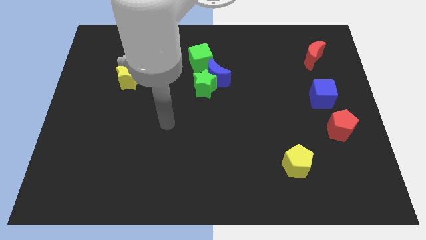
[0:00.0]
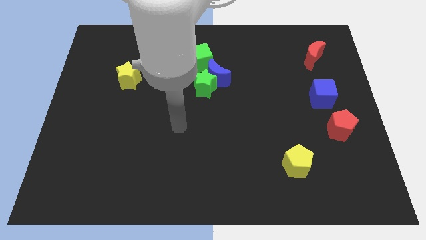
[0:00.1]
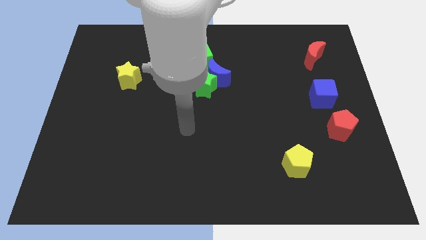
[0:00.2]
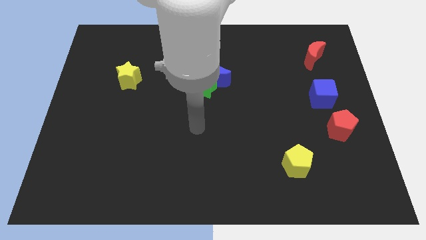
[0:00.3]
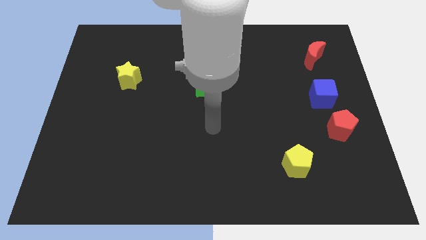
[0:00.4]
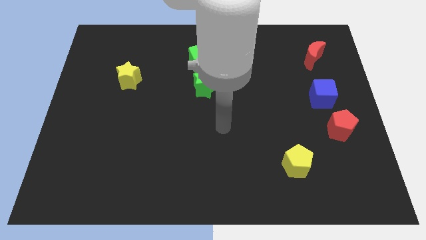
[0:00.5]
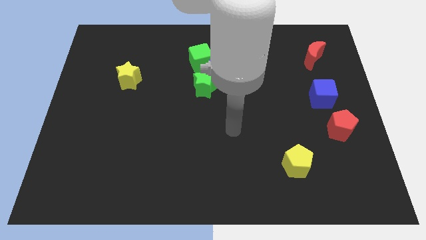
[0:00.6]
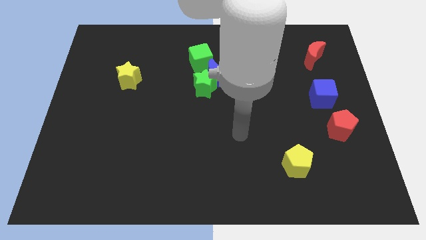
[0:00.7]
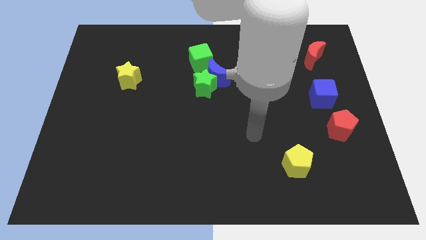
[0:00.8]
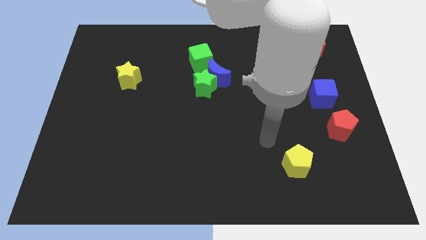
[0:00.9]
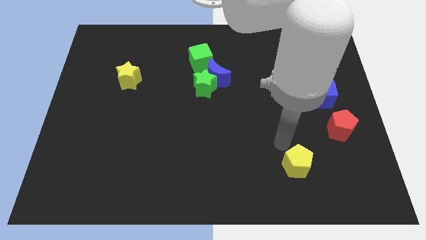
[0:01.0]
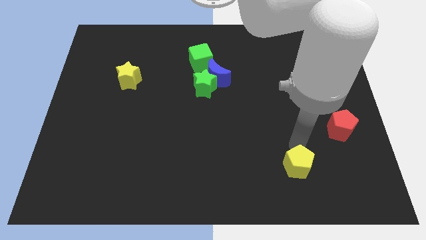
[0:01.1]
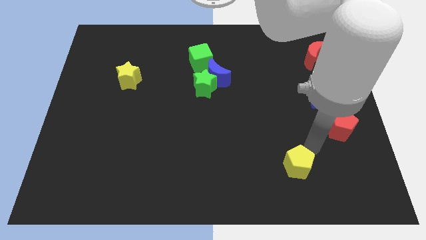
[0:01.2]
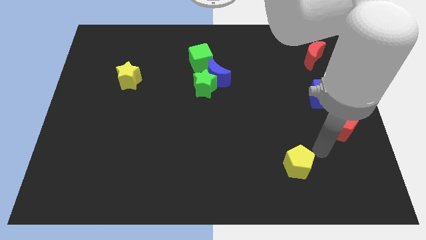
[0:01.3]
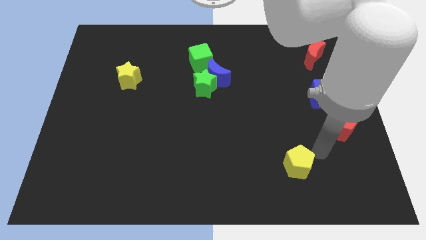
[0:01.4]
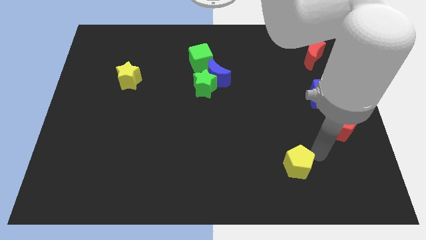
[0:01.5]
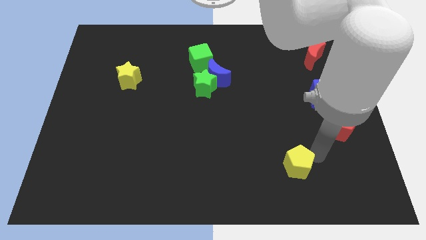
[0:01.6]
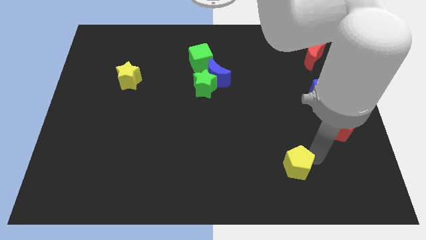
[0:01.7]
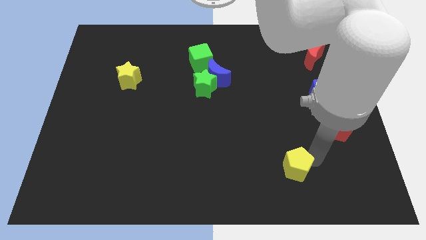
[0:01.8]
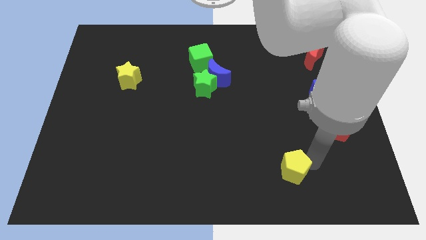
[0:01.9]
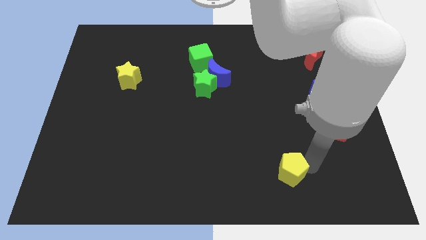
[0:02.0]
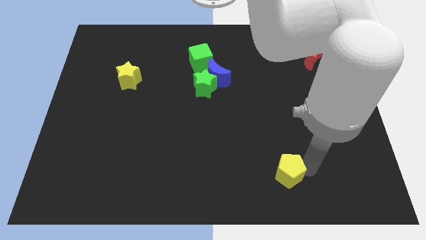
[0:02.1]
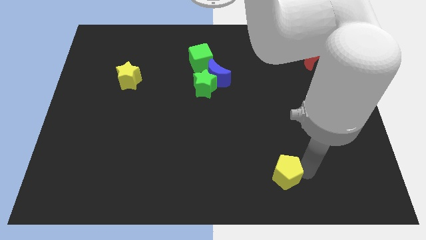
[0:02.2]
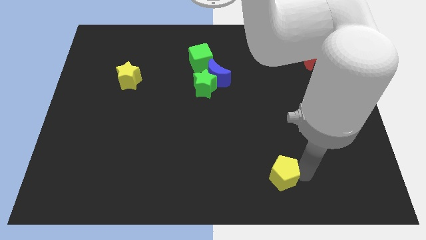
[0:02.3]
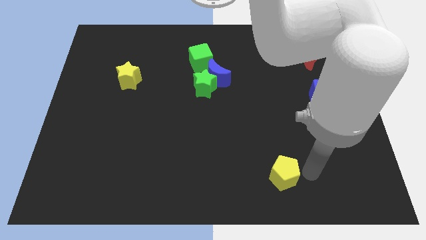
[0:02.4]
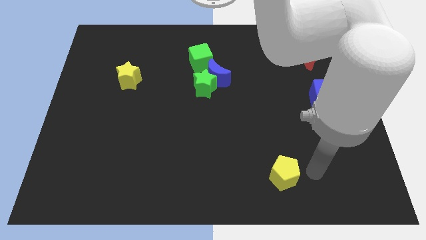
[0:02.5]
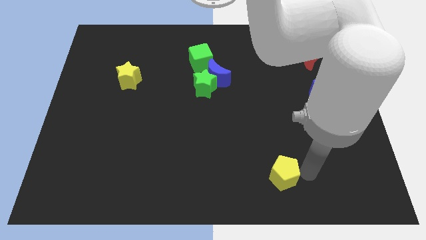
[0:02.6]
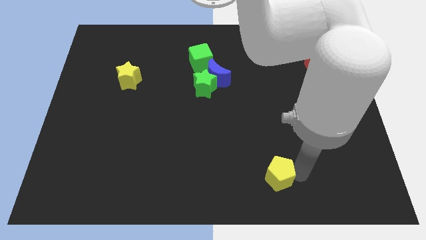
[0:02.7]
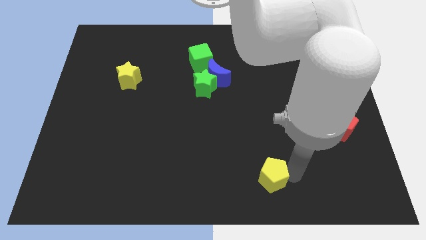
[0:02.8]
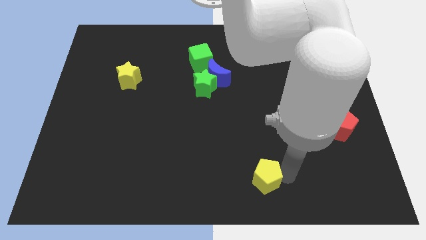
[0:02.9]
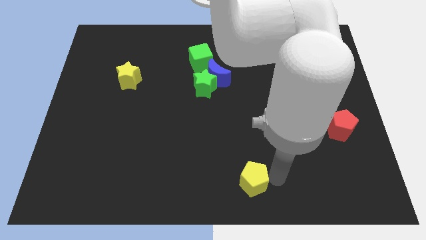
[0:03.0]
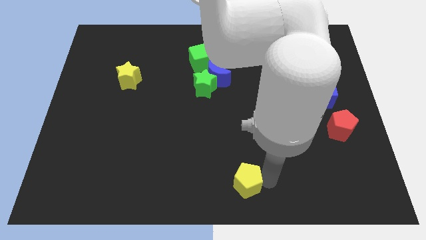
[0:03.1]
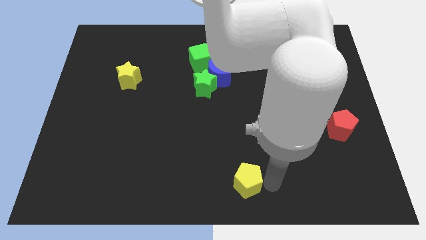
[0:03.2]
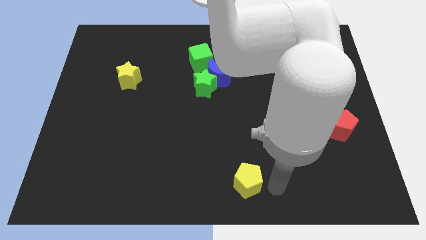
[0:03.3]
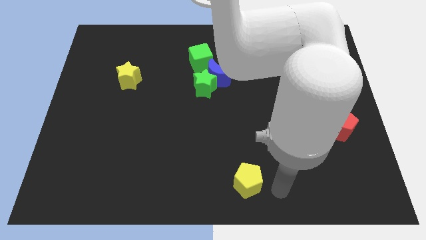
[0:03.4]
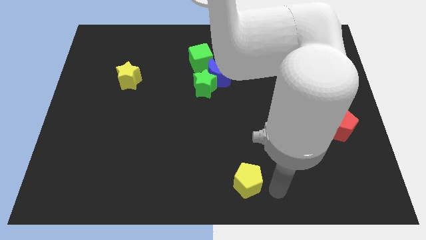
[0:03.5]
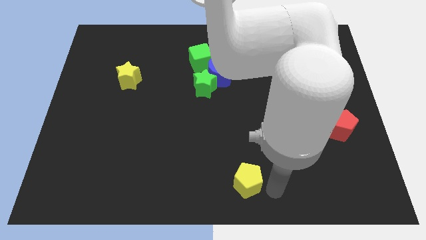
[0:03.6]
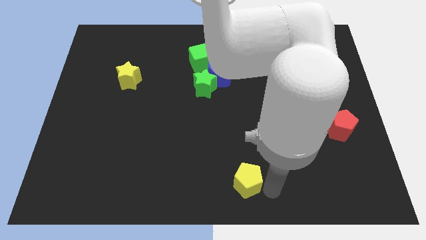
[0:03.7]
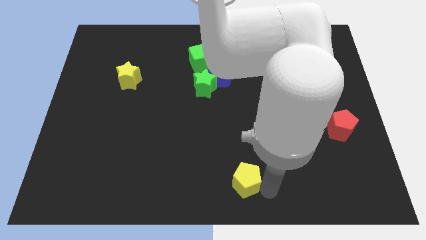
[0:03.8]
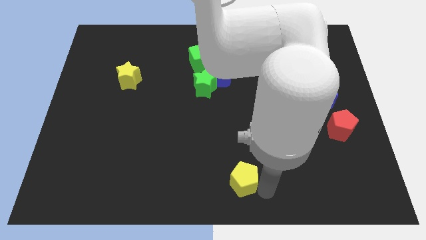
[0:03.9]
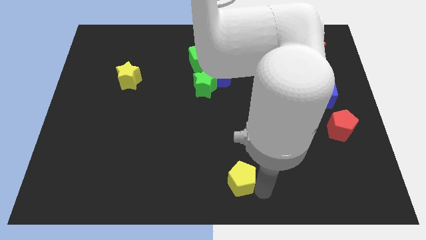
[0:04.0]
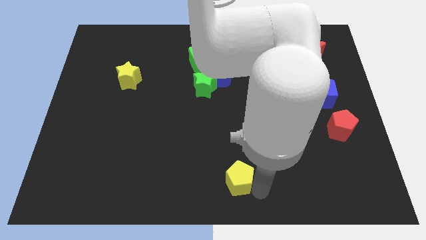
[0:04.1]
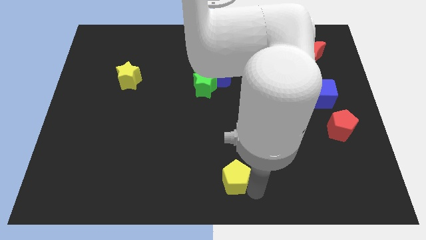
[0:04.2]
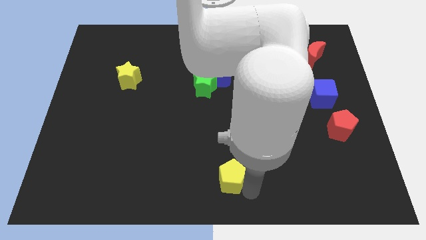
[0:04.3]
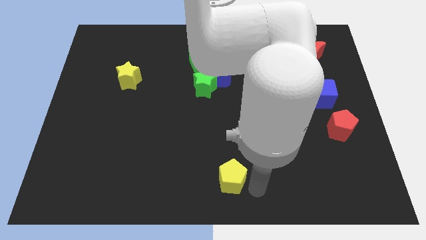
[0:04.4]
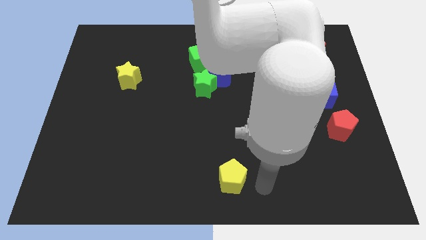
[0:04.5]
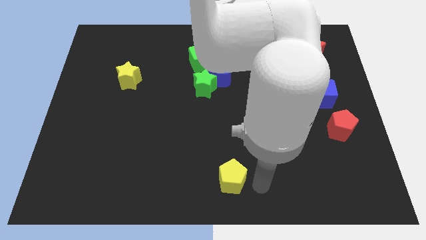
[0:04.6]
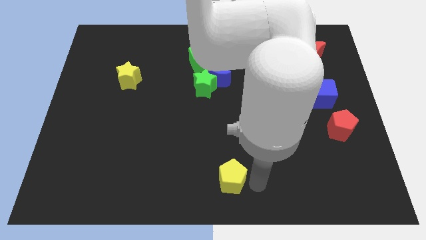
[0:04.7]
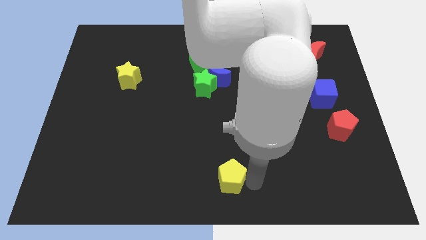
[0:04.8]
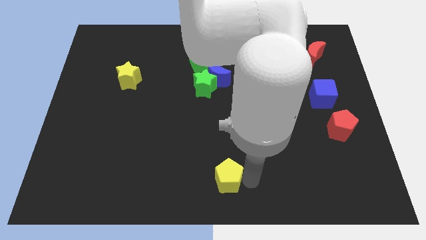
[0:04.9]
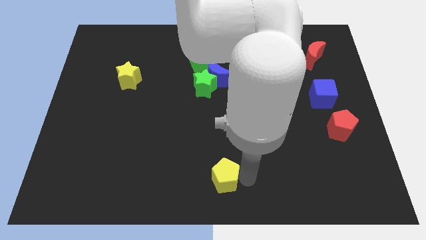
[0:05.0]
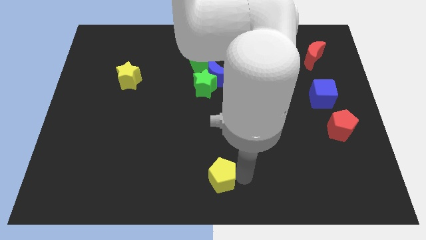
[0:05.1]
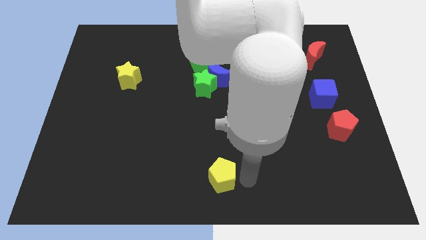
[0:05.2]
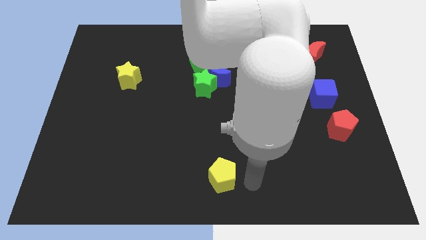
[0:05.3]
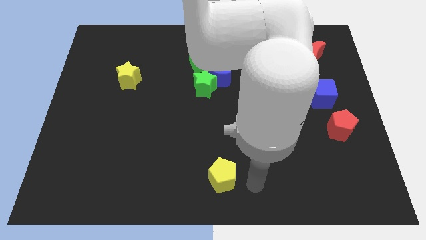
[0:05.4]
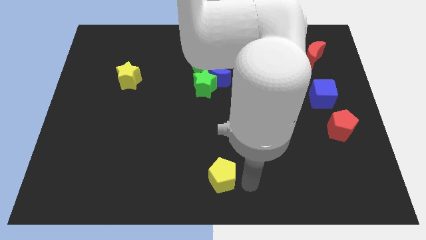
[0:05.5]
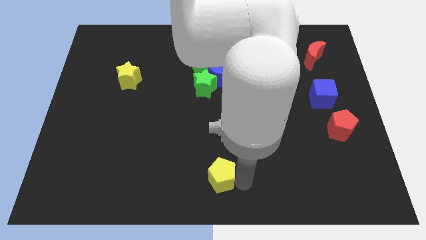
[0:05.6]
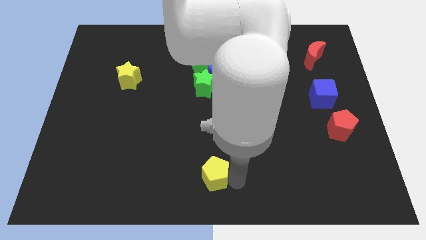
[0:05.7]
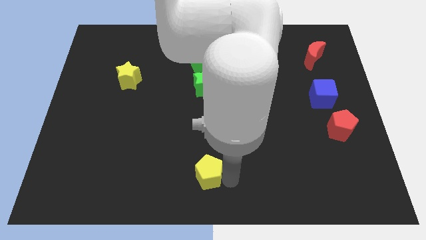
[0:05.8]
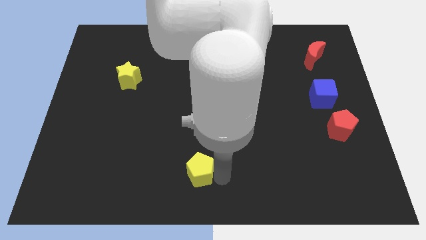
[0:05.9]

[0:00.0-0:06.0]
slide the yellow pentagon to the left

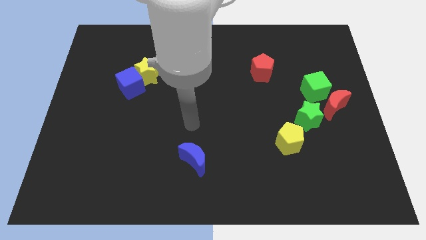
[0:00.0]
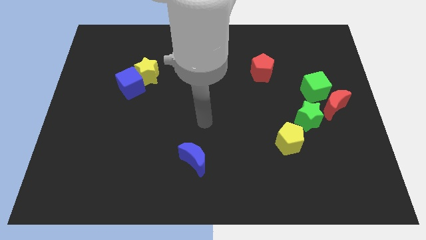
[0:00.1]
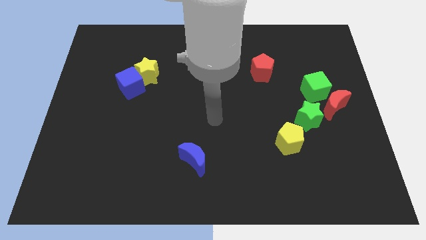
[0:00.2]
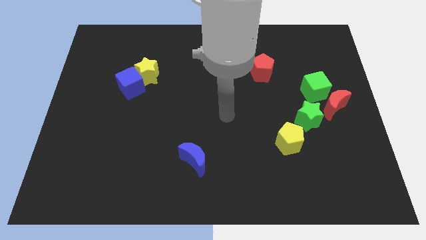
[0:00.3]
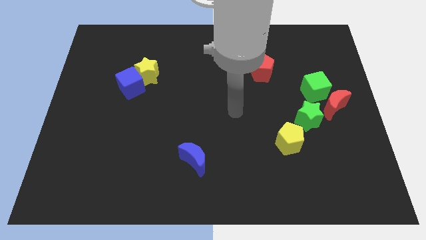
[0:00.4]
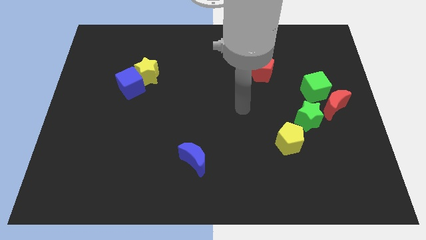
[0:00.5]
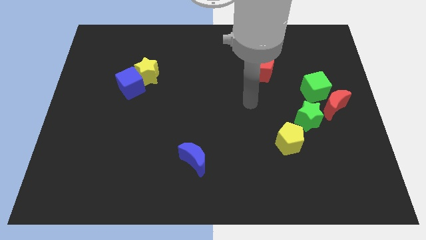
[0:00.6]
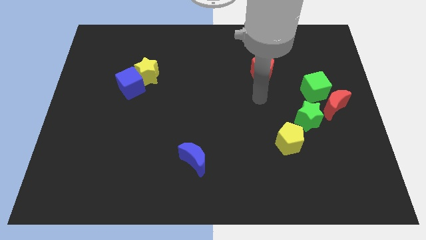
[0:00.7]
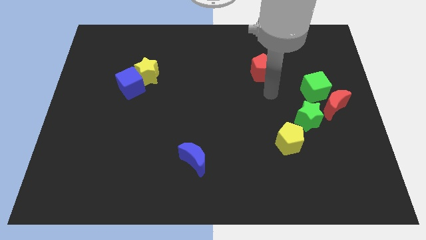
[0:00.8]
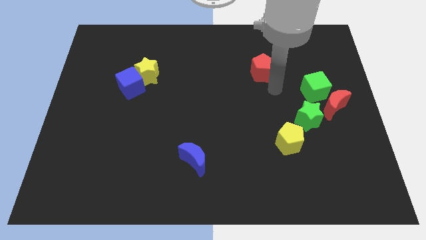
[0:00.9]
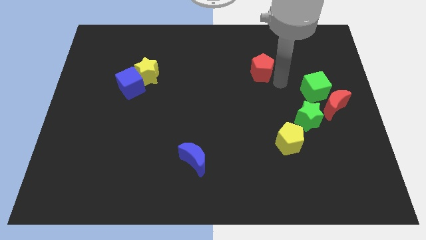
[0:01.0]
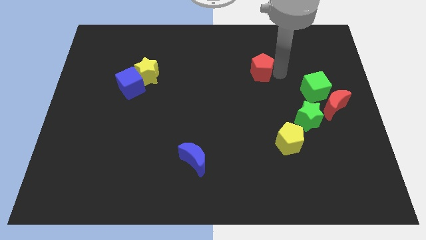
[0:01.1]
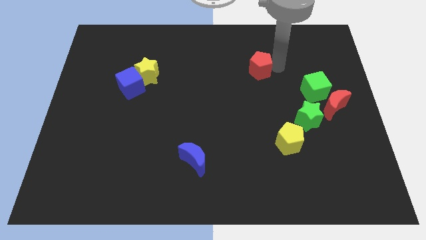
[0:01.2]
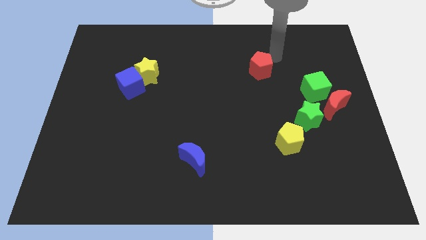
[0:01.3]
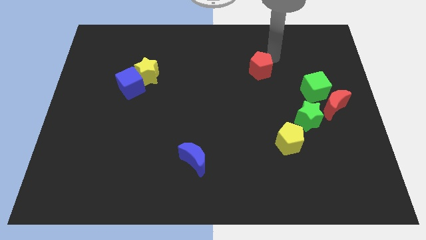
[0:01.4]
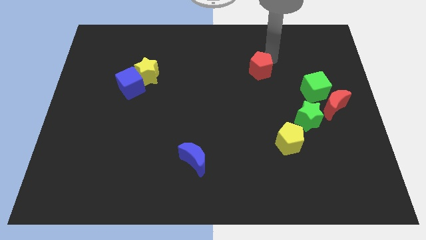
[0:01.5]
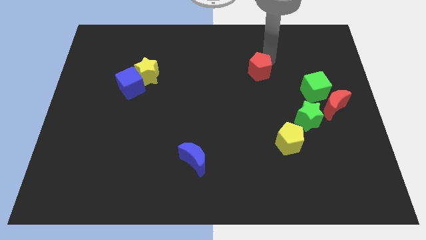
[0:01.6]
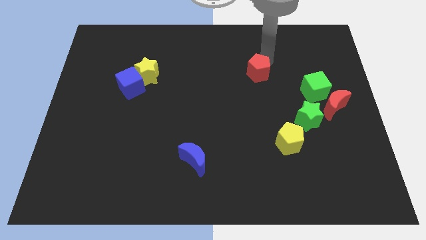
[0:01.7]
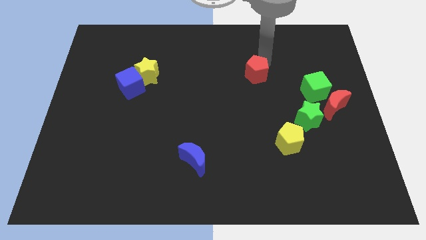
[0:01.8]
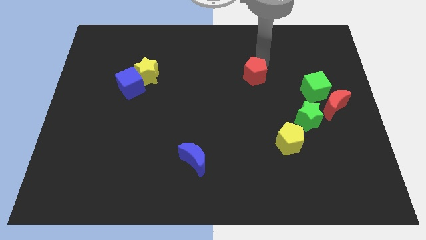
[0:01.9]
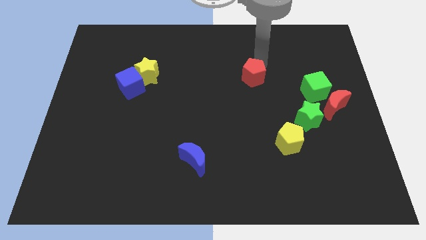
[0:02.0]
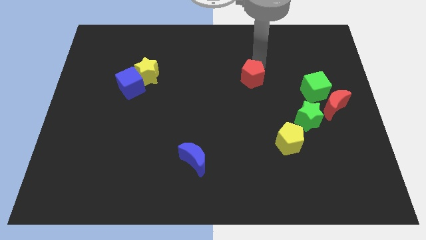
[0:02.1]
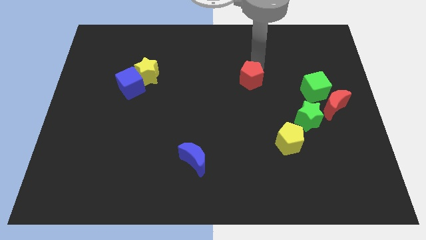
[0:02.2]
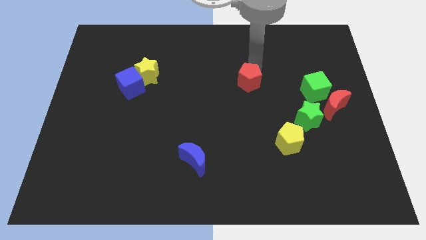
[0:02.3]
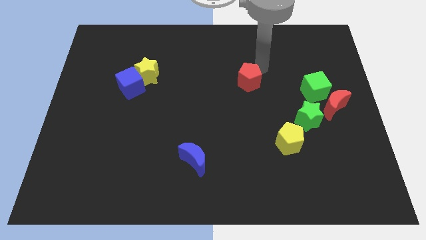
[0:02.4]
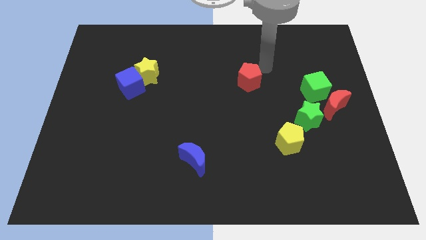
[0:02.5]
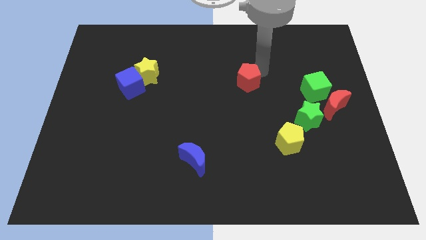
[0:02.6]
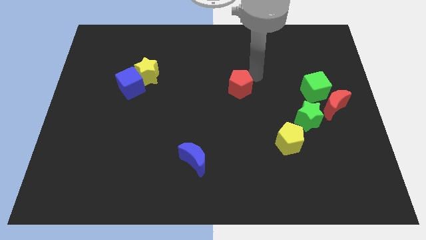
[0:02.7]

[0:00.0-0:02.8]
push the red pentagon down and to the left a little bit
